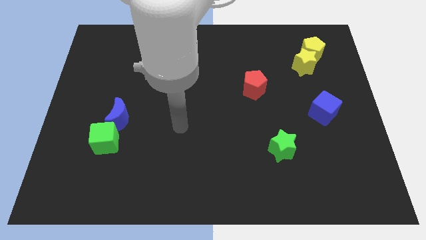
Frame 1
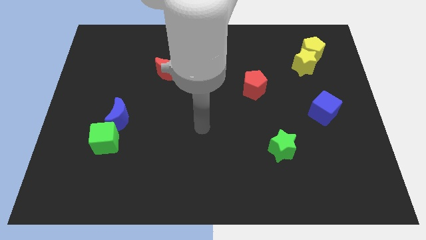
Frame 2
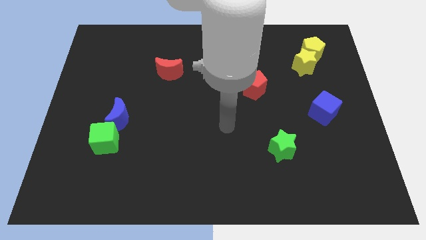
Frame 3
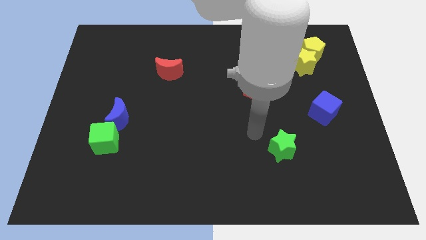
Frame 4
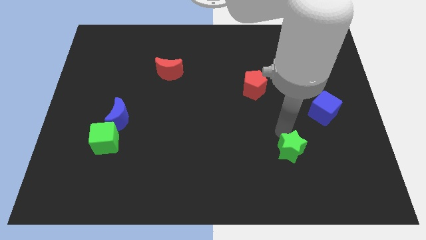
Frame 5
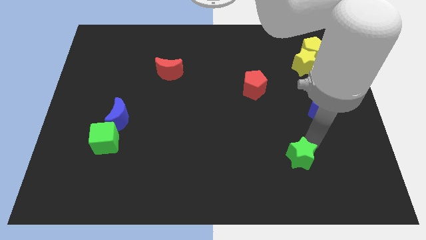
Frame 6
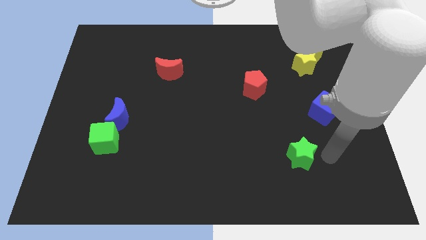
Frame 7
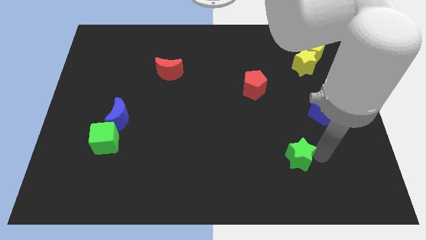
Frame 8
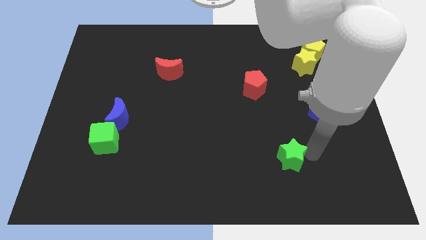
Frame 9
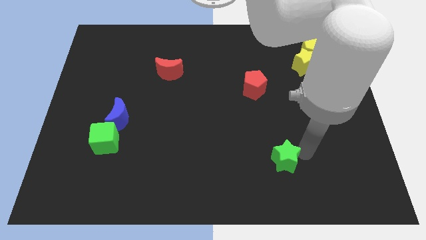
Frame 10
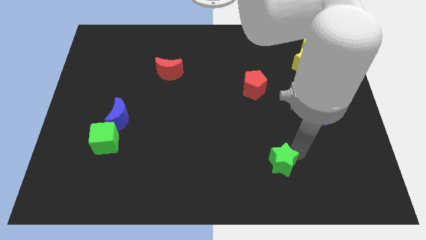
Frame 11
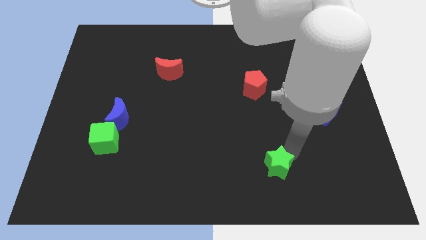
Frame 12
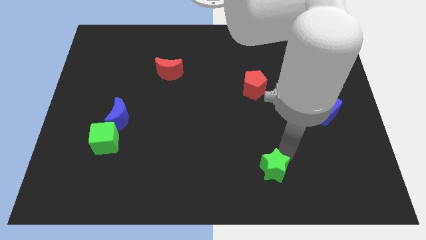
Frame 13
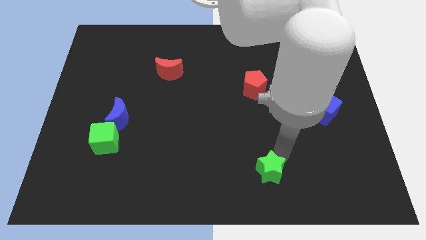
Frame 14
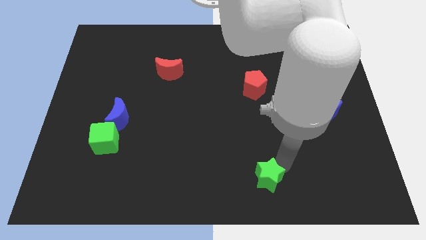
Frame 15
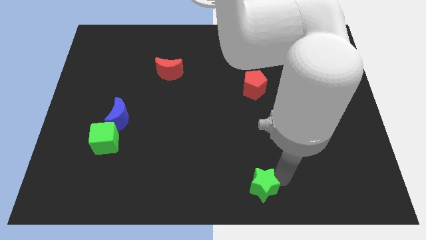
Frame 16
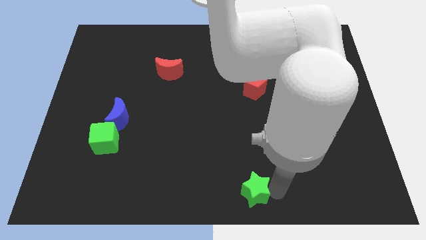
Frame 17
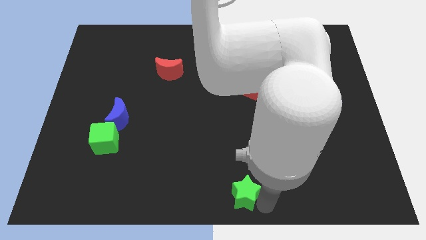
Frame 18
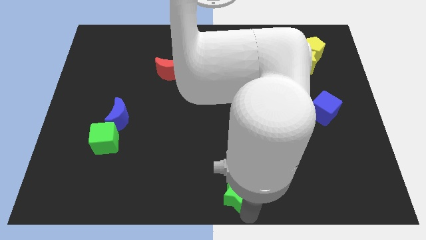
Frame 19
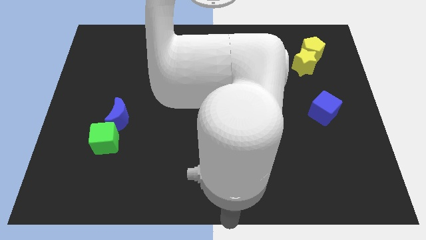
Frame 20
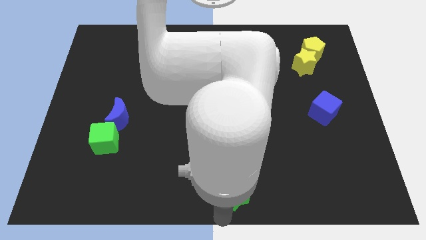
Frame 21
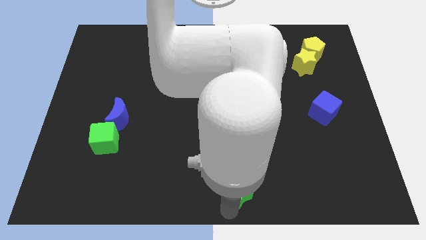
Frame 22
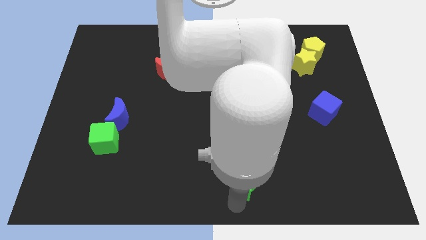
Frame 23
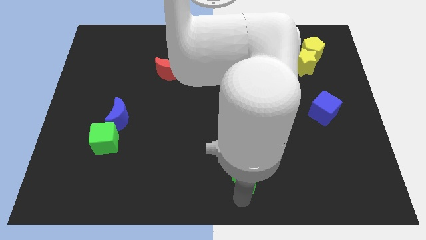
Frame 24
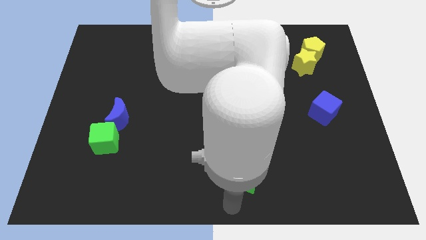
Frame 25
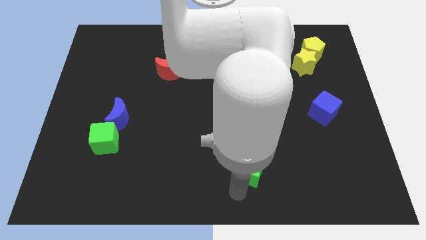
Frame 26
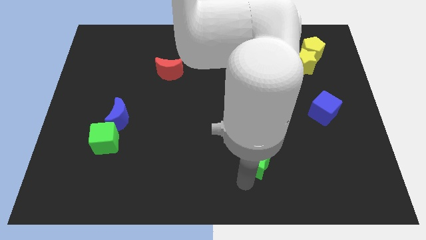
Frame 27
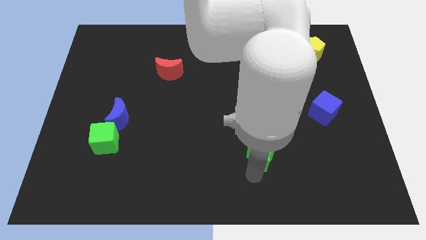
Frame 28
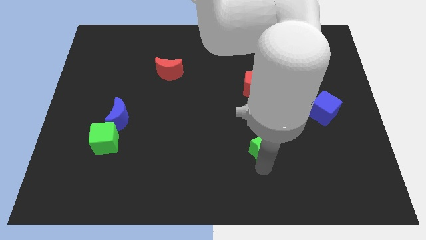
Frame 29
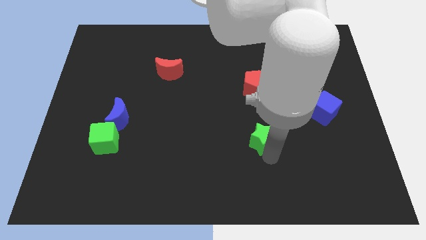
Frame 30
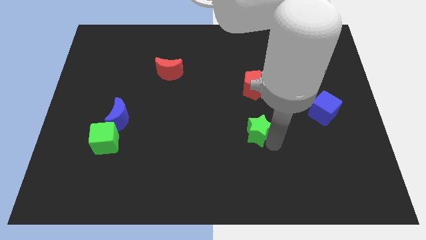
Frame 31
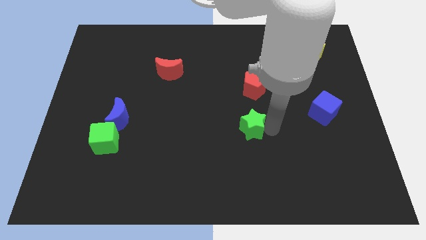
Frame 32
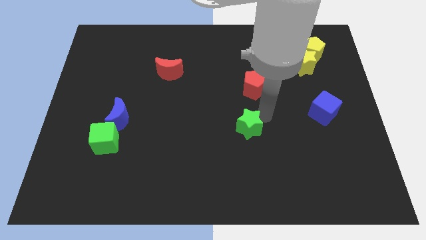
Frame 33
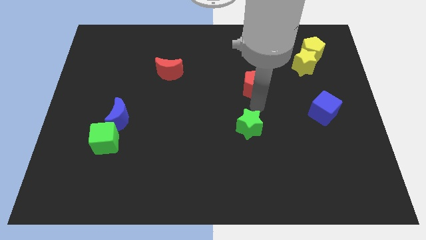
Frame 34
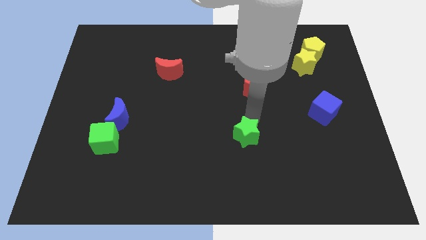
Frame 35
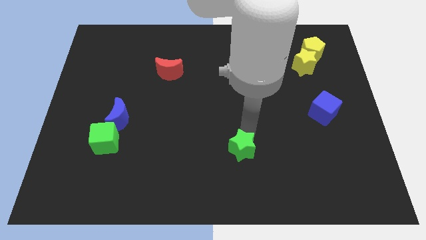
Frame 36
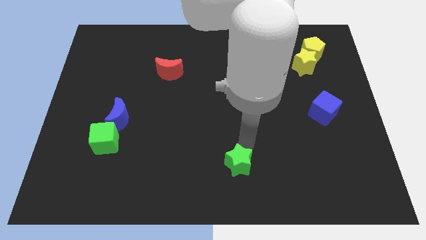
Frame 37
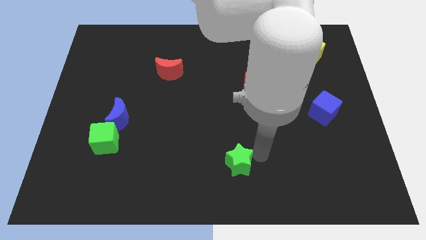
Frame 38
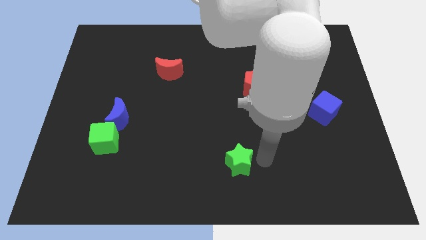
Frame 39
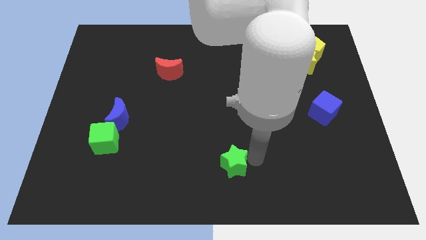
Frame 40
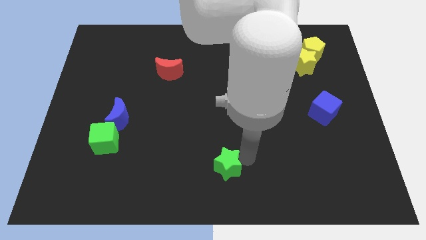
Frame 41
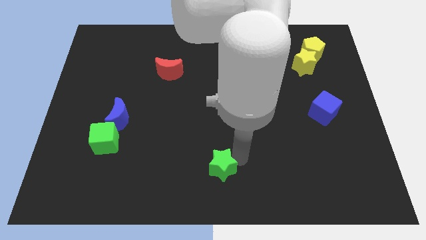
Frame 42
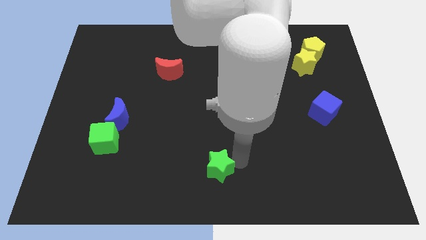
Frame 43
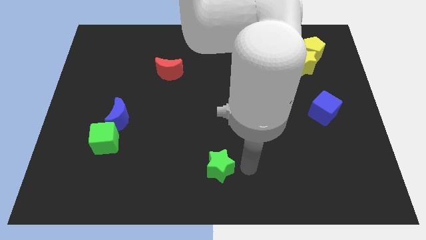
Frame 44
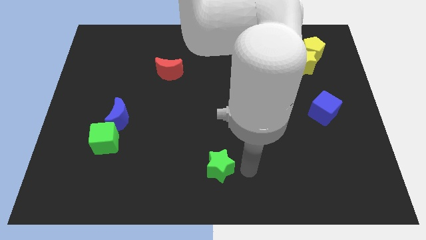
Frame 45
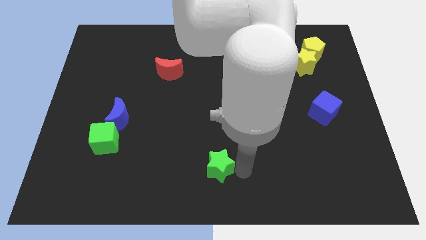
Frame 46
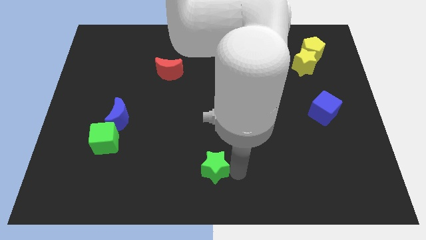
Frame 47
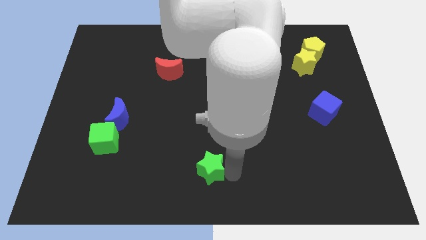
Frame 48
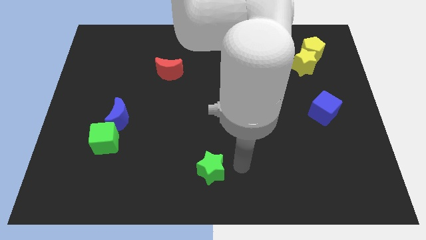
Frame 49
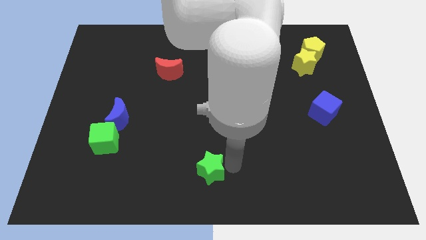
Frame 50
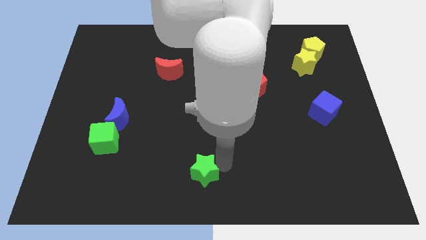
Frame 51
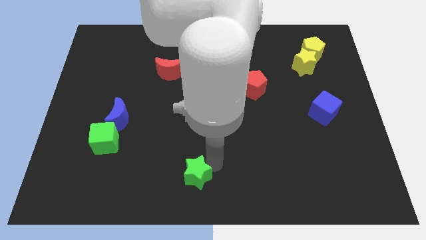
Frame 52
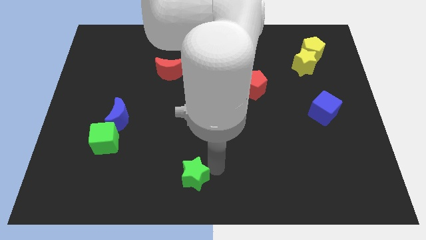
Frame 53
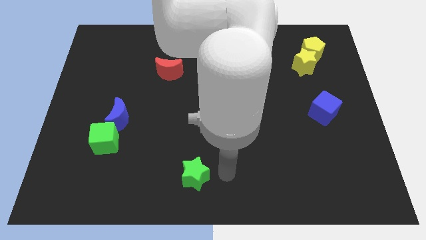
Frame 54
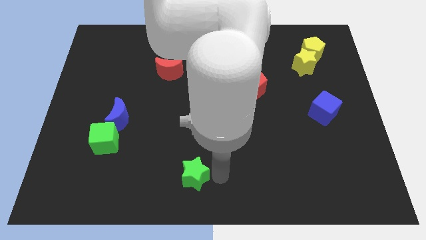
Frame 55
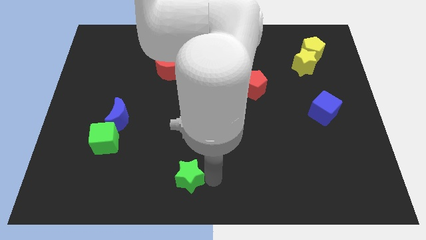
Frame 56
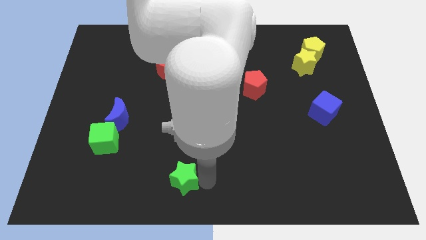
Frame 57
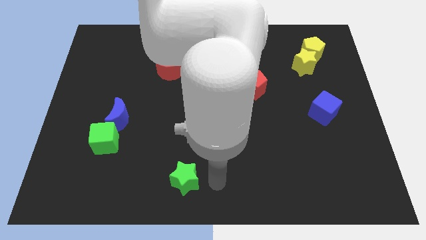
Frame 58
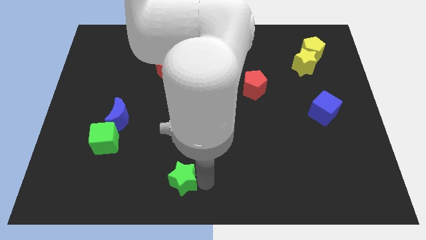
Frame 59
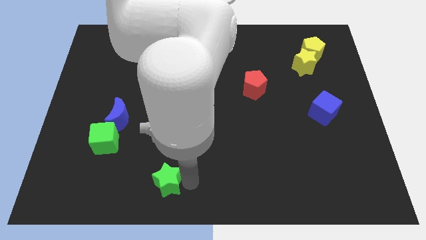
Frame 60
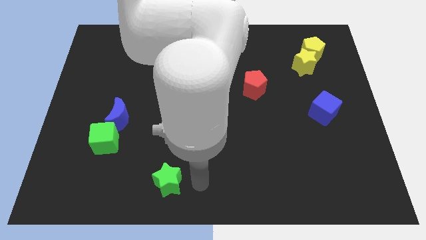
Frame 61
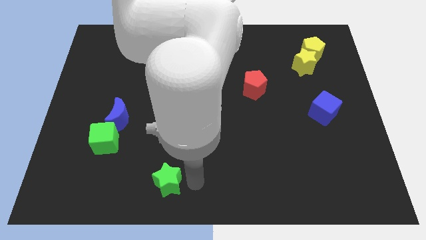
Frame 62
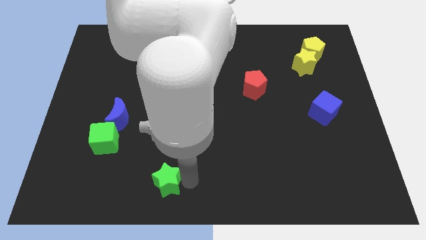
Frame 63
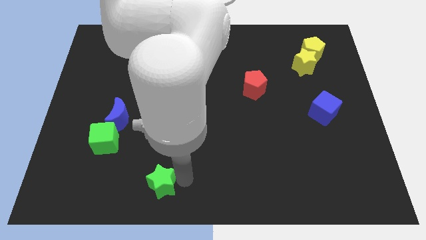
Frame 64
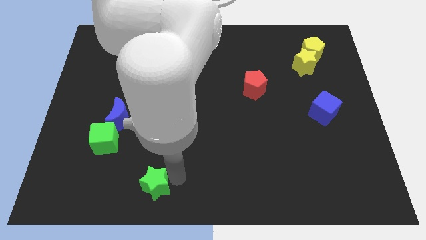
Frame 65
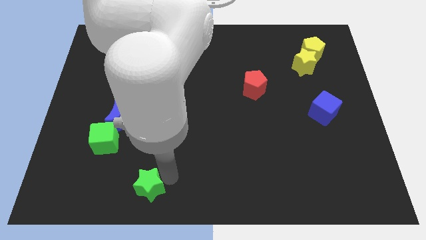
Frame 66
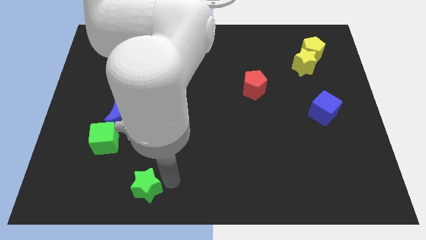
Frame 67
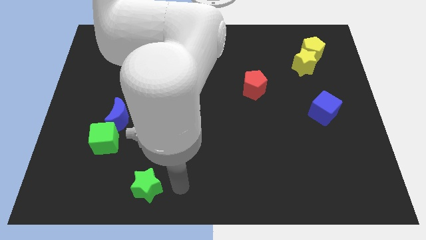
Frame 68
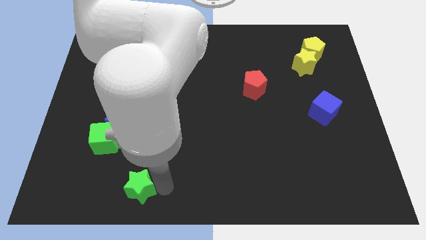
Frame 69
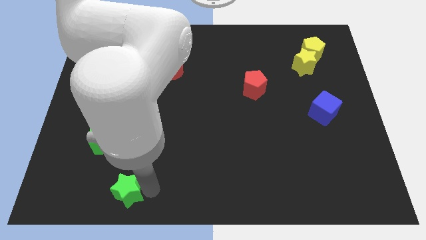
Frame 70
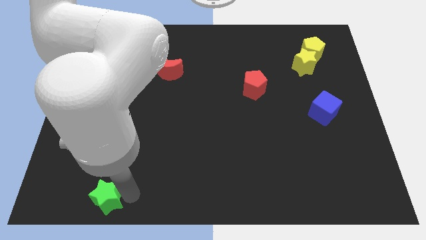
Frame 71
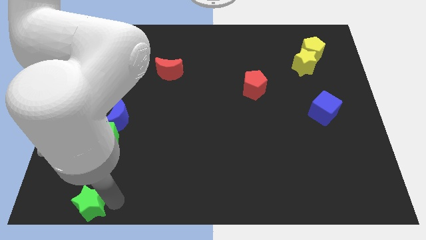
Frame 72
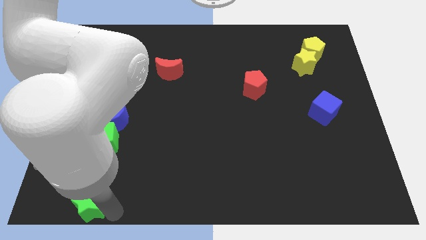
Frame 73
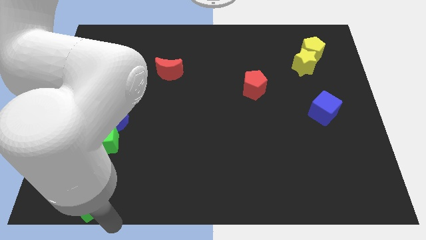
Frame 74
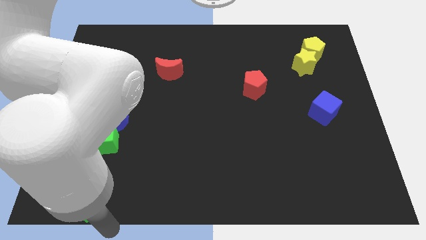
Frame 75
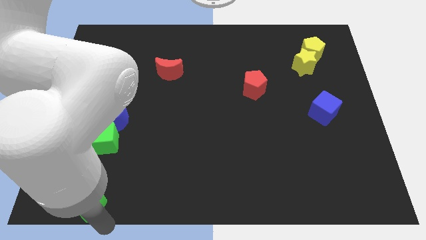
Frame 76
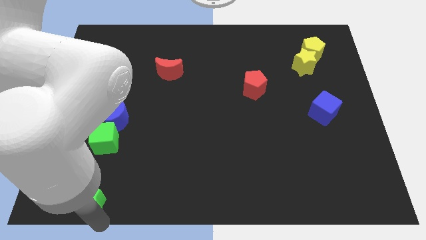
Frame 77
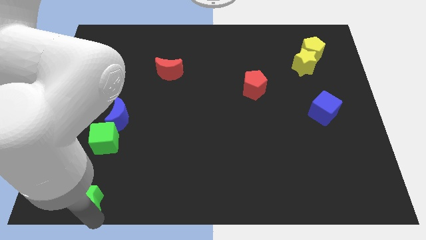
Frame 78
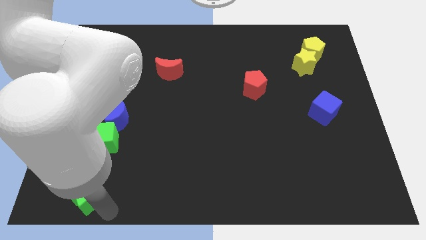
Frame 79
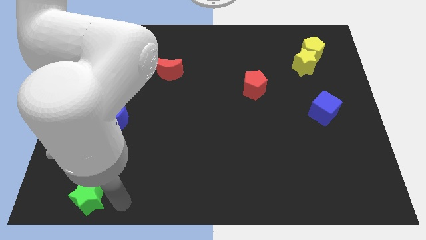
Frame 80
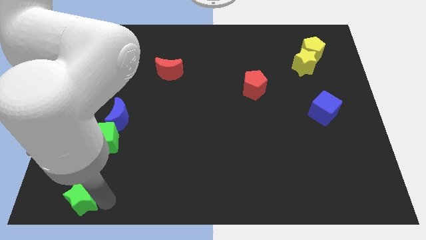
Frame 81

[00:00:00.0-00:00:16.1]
move the green star to the bottom left
